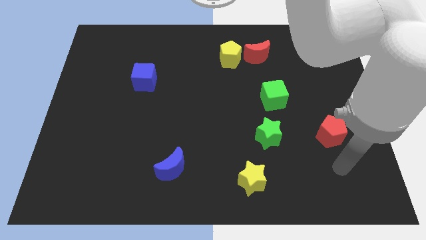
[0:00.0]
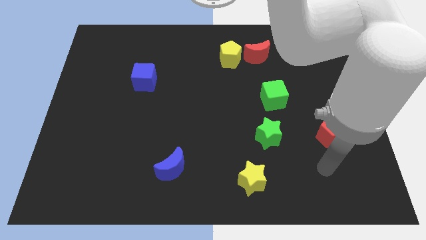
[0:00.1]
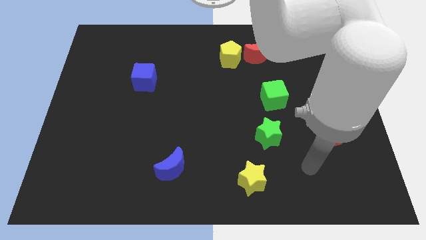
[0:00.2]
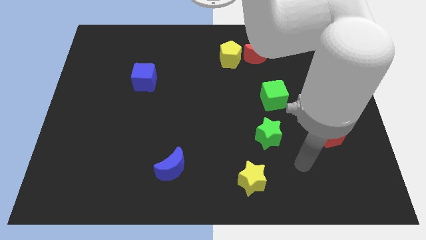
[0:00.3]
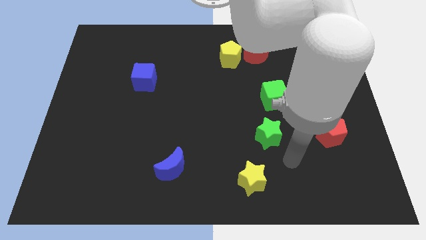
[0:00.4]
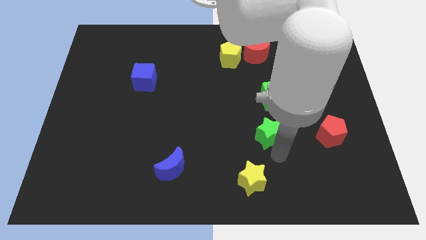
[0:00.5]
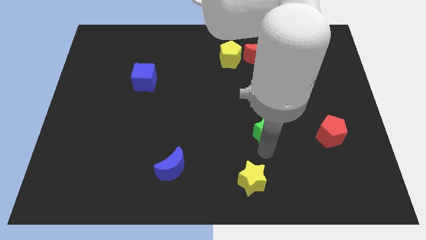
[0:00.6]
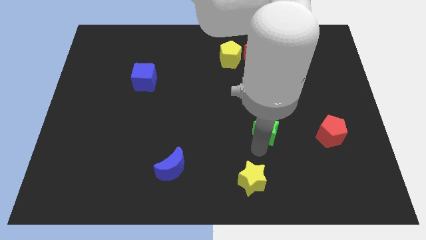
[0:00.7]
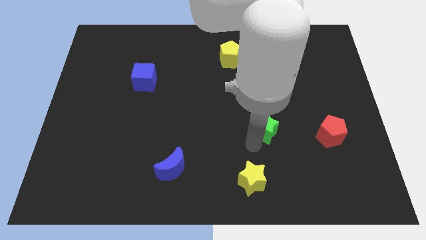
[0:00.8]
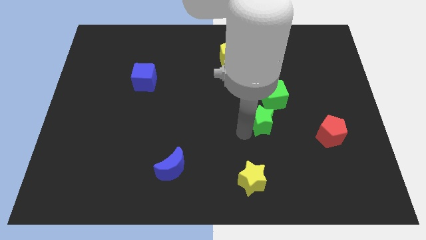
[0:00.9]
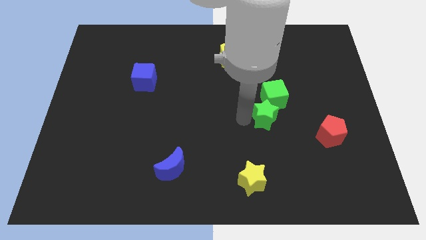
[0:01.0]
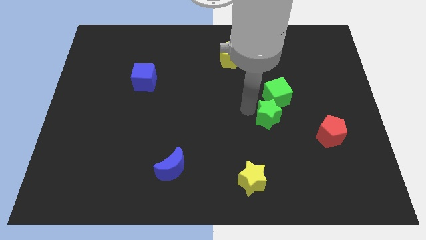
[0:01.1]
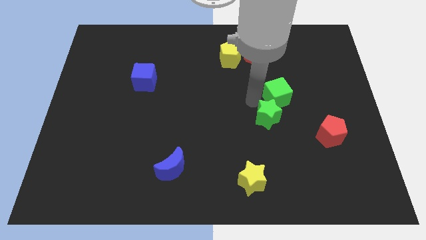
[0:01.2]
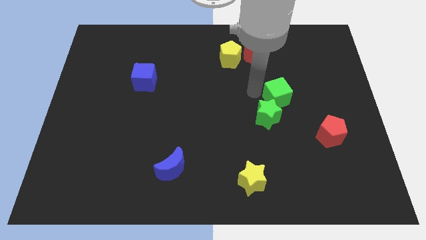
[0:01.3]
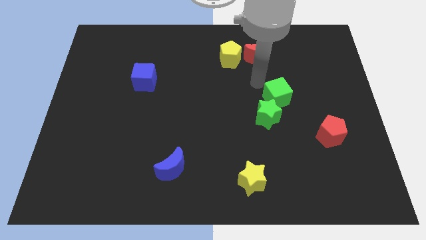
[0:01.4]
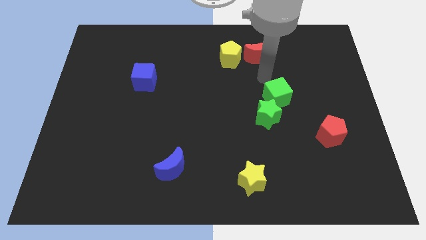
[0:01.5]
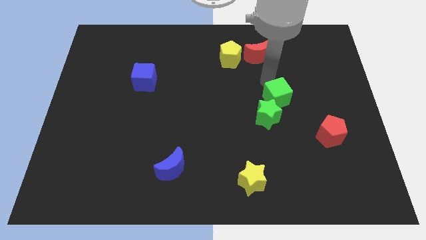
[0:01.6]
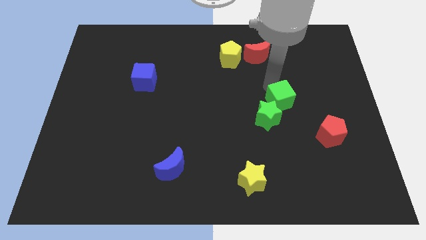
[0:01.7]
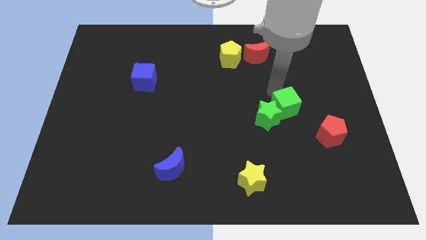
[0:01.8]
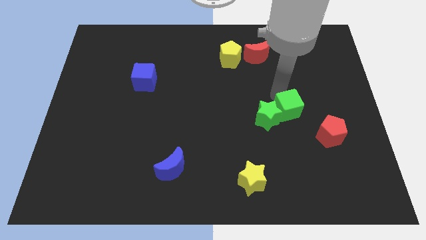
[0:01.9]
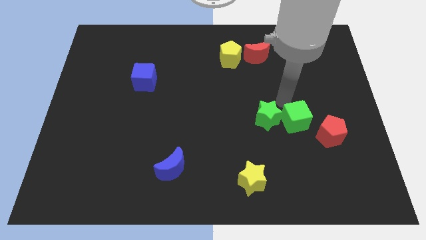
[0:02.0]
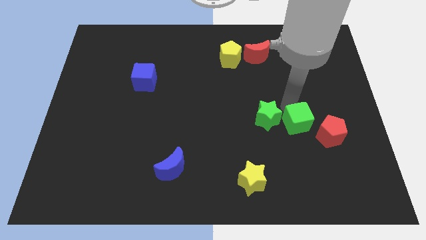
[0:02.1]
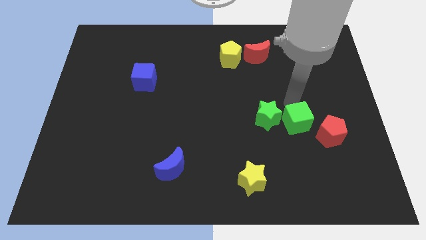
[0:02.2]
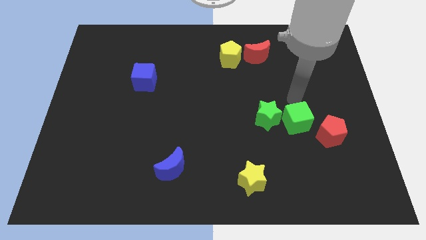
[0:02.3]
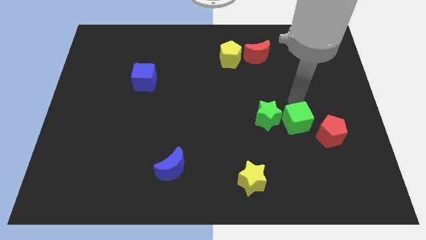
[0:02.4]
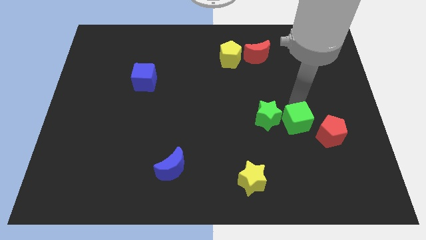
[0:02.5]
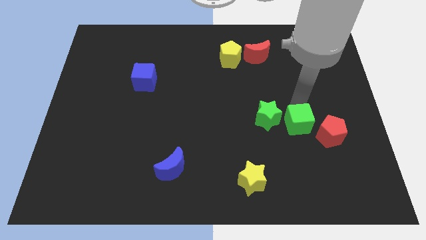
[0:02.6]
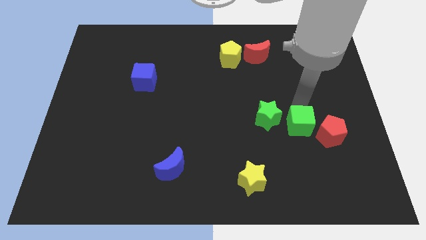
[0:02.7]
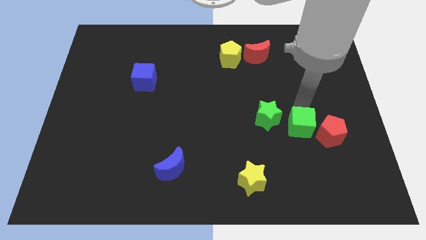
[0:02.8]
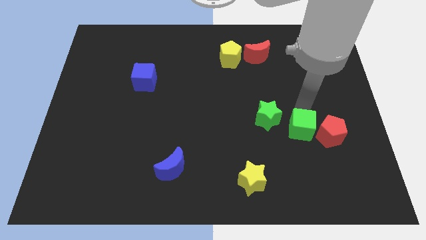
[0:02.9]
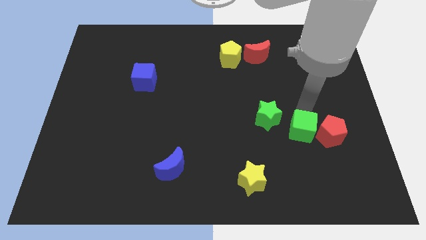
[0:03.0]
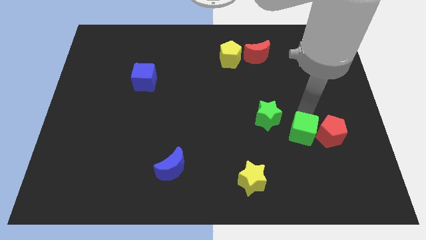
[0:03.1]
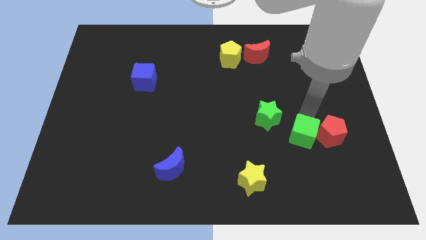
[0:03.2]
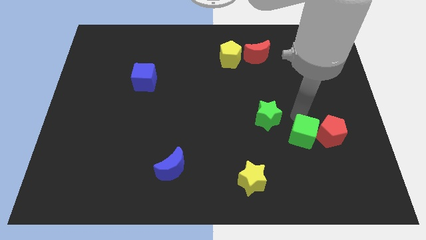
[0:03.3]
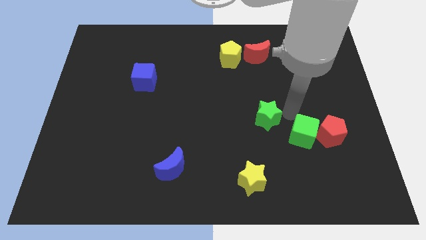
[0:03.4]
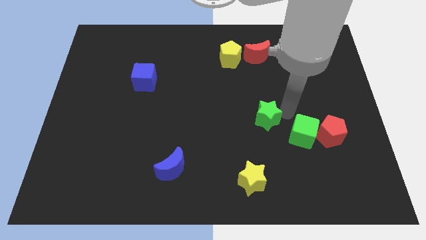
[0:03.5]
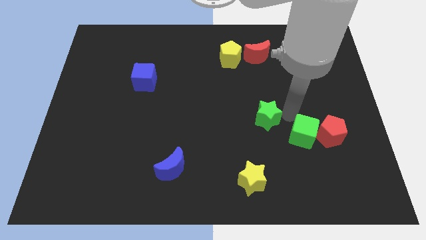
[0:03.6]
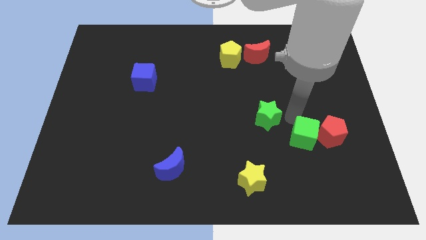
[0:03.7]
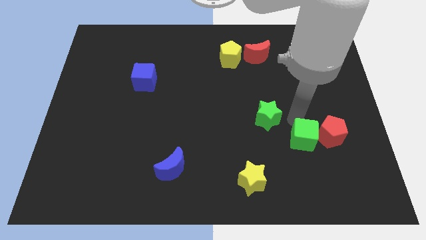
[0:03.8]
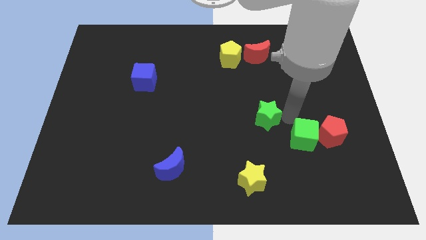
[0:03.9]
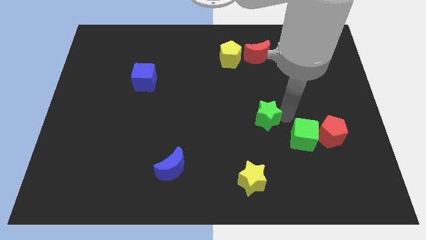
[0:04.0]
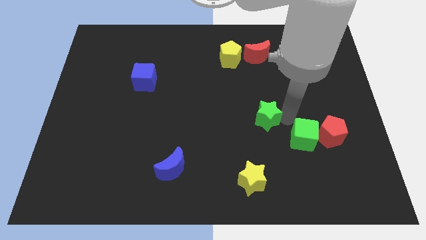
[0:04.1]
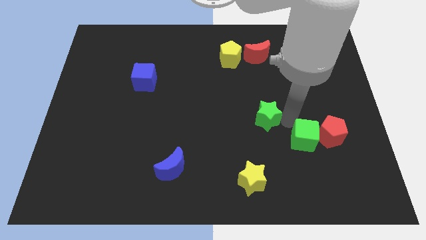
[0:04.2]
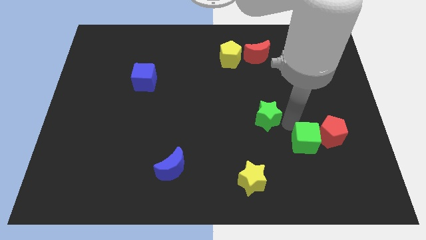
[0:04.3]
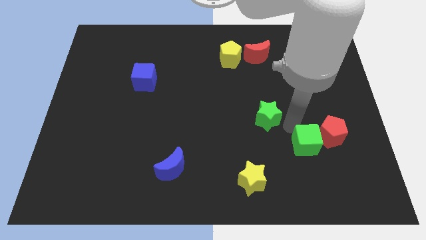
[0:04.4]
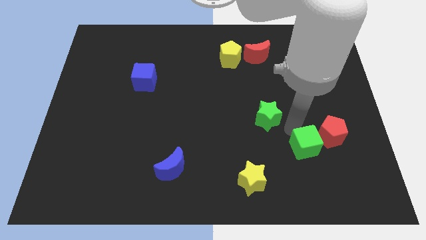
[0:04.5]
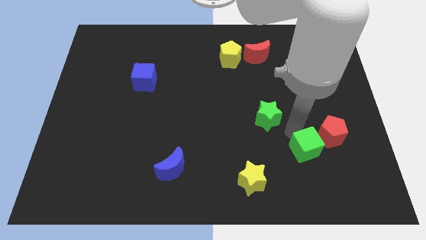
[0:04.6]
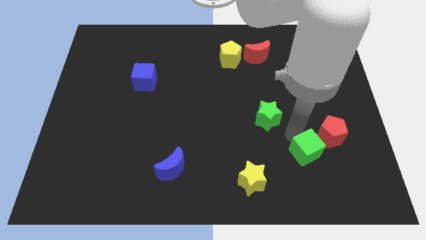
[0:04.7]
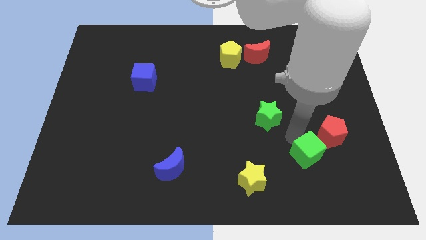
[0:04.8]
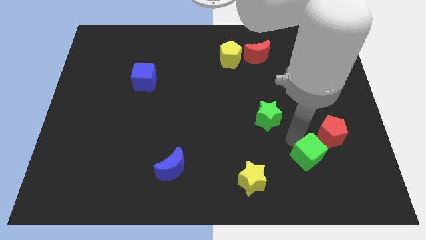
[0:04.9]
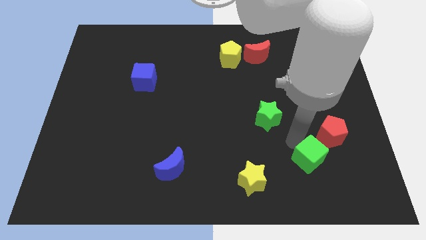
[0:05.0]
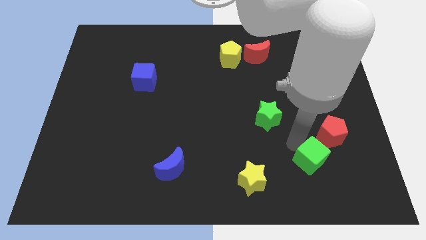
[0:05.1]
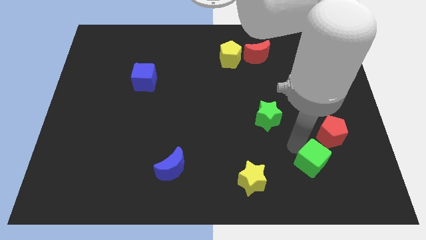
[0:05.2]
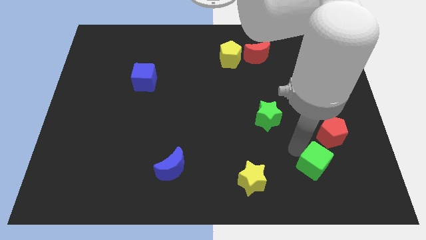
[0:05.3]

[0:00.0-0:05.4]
move the green cube below the red pentagon

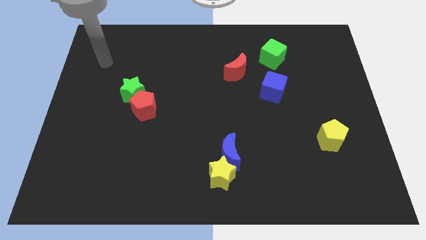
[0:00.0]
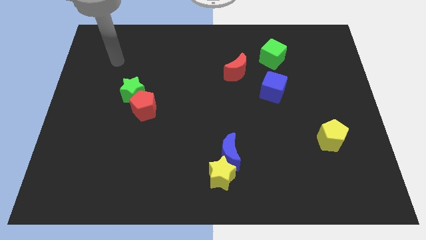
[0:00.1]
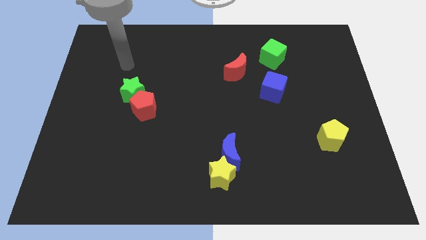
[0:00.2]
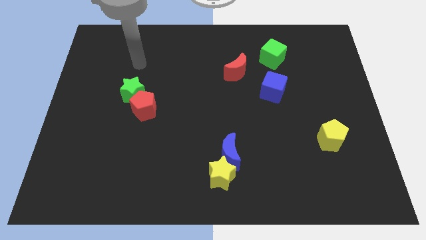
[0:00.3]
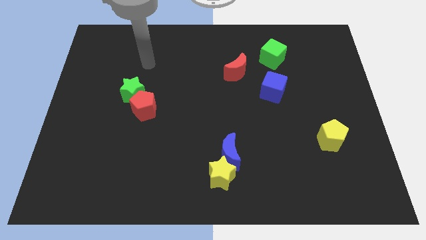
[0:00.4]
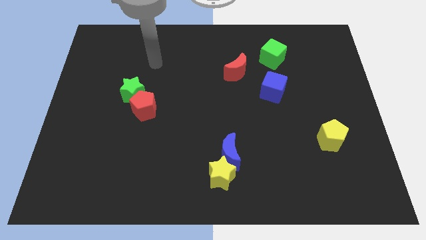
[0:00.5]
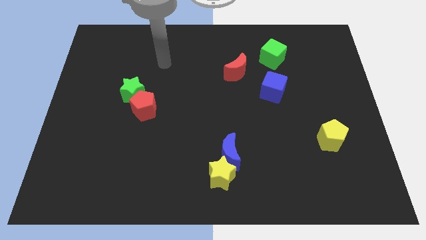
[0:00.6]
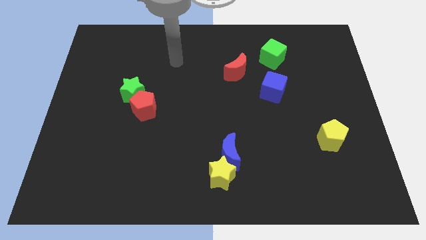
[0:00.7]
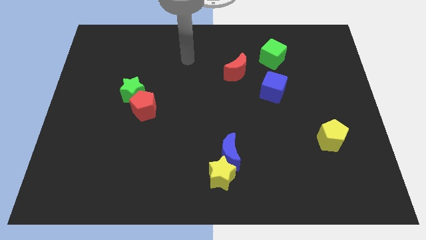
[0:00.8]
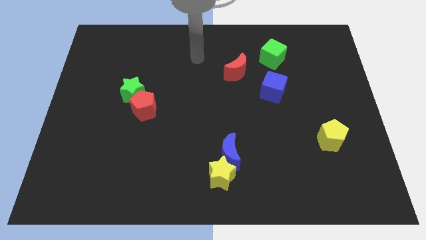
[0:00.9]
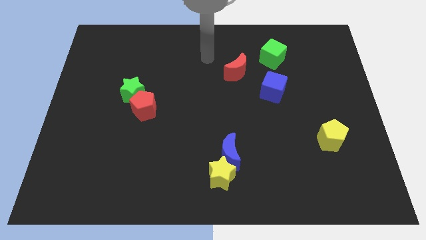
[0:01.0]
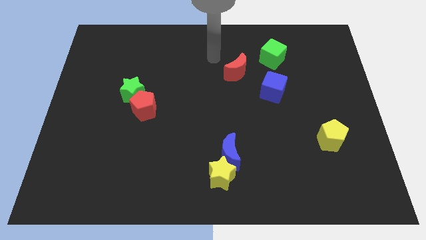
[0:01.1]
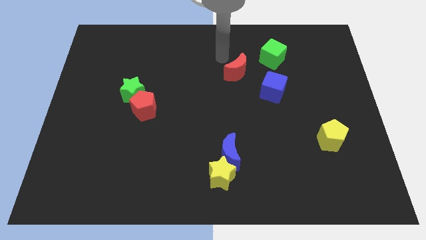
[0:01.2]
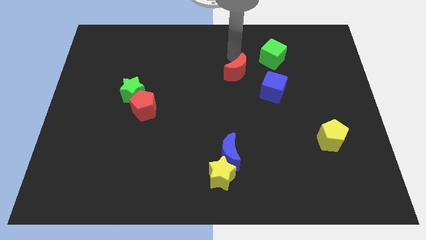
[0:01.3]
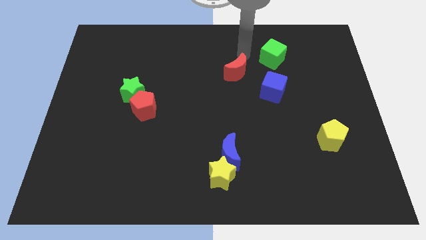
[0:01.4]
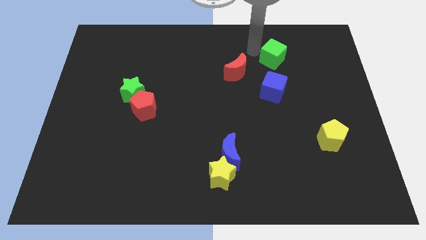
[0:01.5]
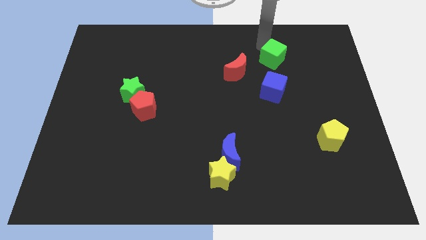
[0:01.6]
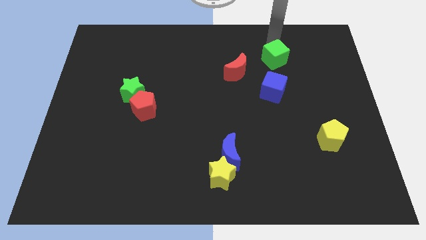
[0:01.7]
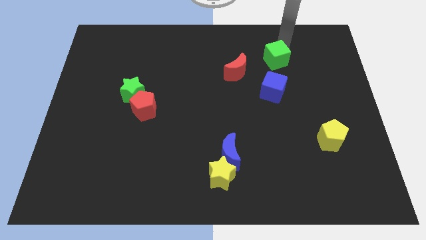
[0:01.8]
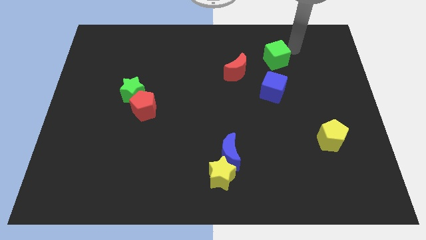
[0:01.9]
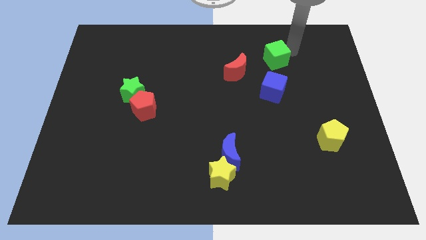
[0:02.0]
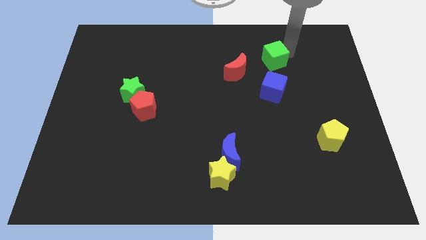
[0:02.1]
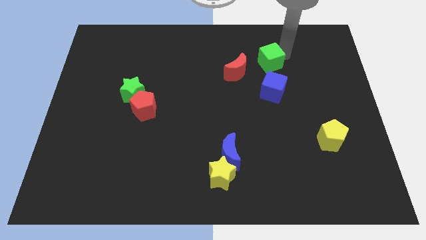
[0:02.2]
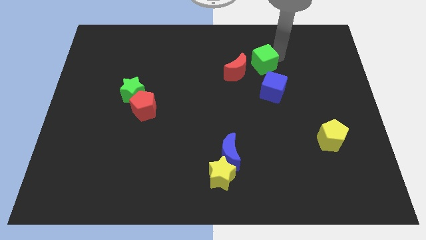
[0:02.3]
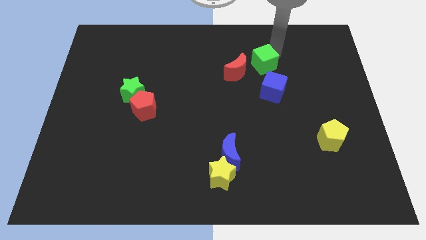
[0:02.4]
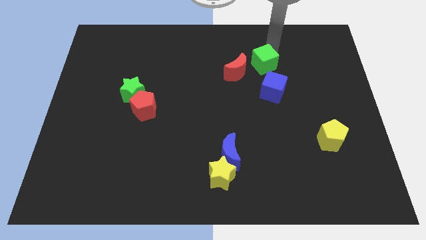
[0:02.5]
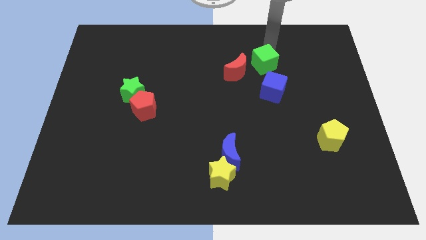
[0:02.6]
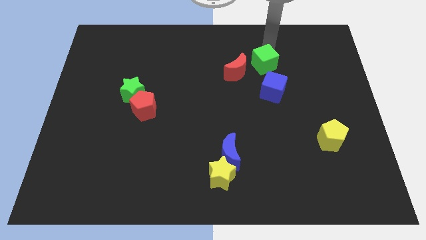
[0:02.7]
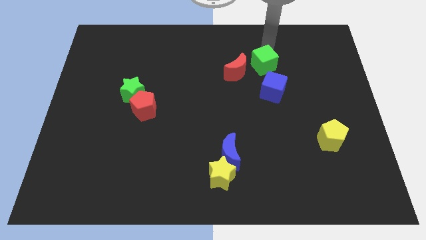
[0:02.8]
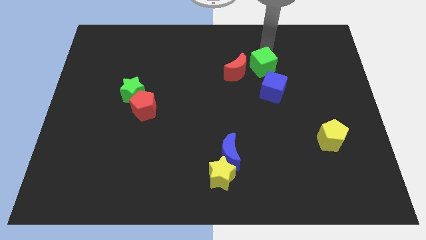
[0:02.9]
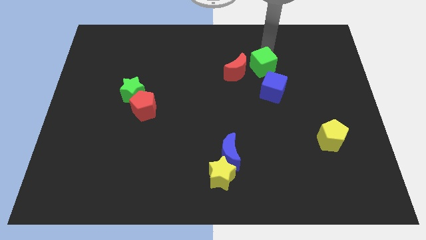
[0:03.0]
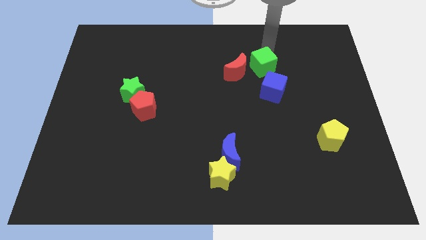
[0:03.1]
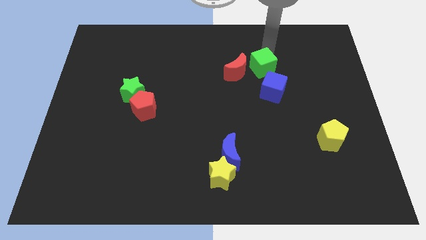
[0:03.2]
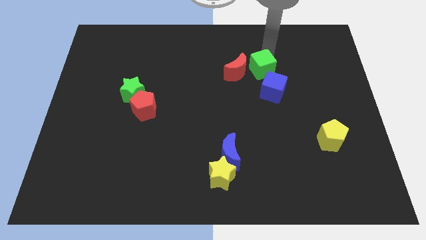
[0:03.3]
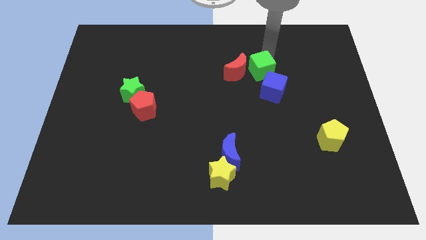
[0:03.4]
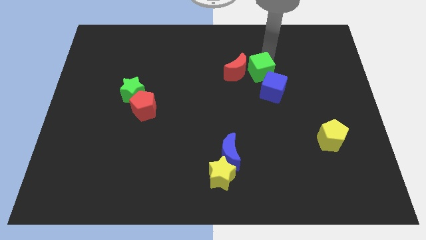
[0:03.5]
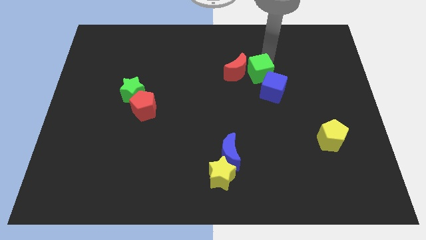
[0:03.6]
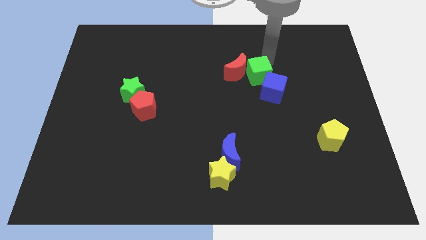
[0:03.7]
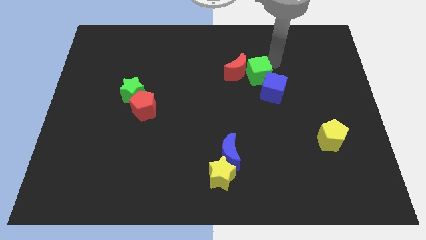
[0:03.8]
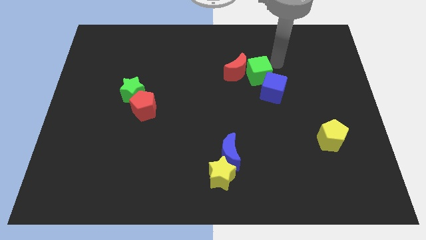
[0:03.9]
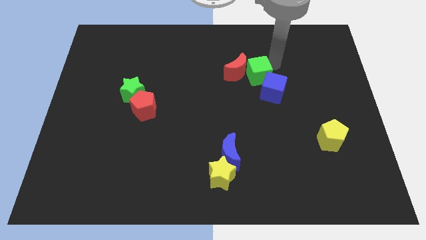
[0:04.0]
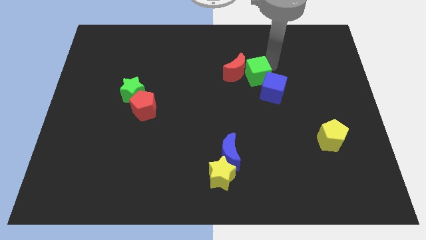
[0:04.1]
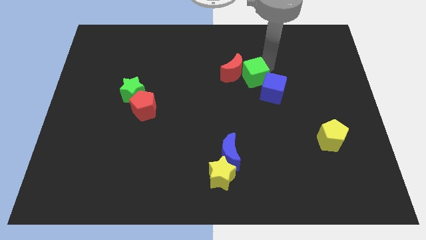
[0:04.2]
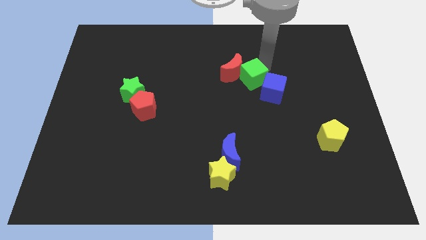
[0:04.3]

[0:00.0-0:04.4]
move the green cube just left of the blue cube
